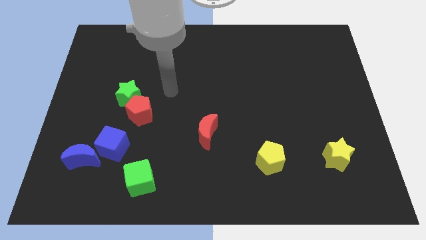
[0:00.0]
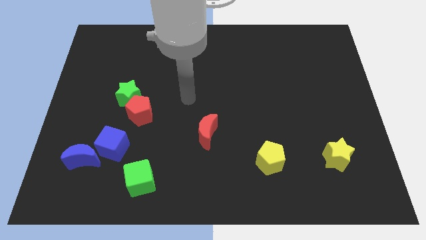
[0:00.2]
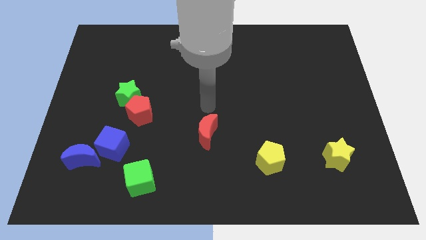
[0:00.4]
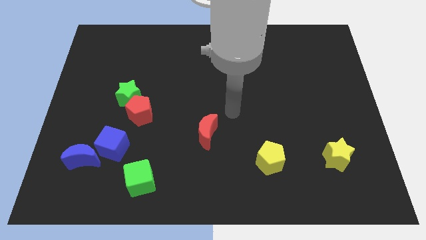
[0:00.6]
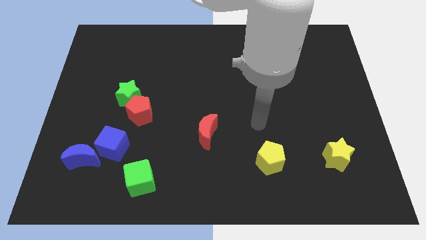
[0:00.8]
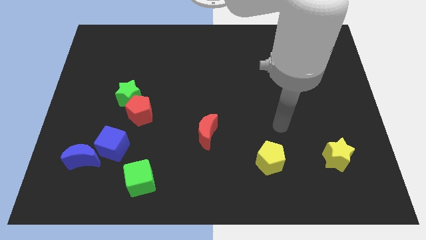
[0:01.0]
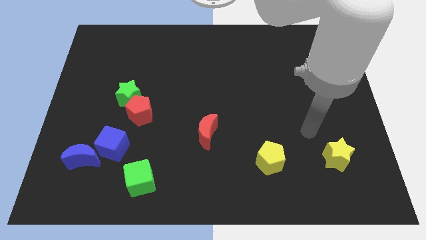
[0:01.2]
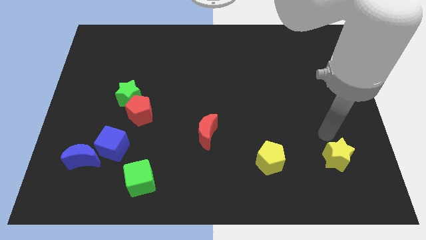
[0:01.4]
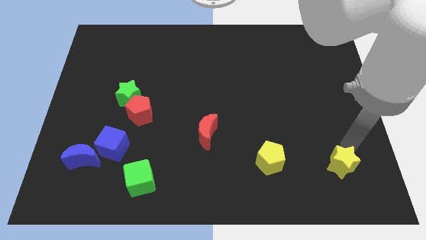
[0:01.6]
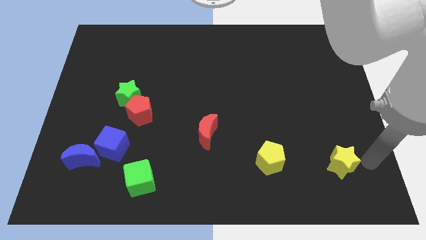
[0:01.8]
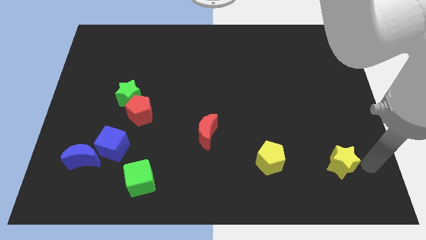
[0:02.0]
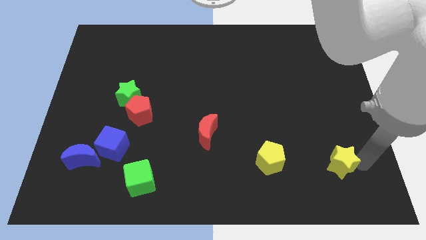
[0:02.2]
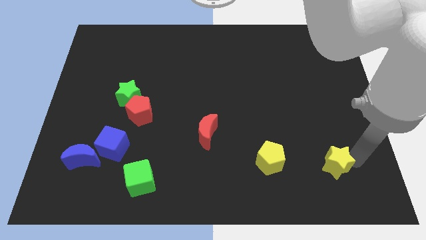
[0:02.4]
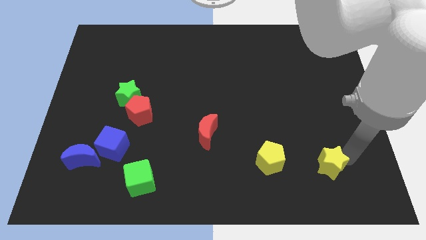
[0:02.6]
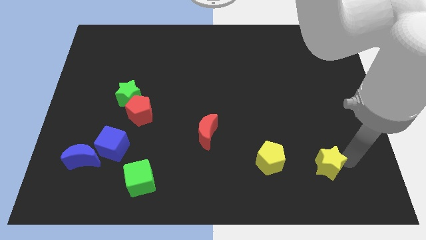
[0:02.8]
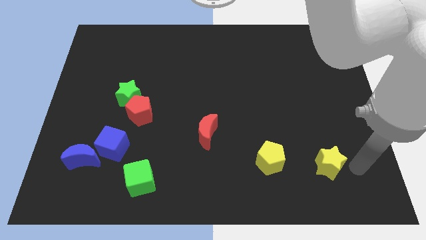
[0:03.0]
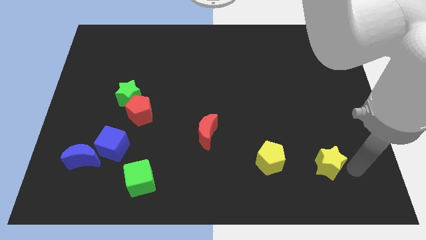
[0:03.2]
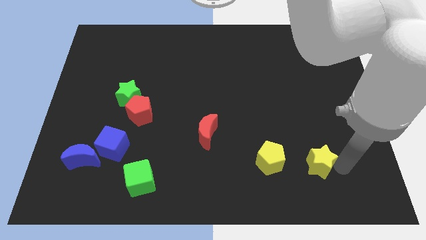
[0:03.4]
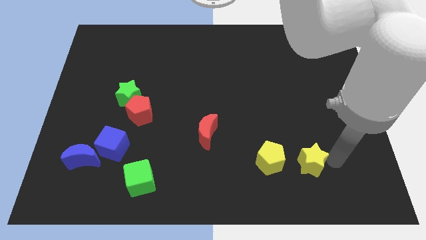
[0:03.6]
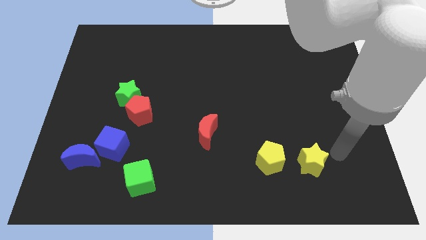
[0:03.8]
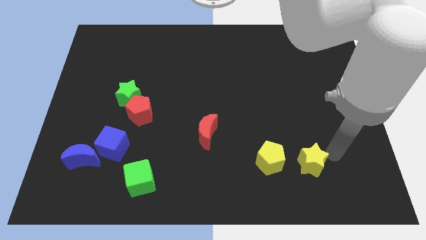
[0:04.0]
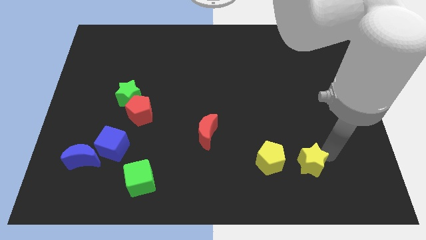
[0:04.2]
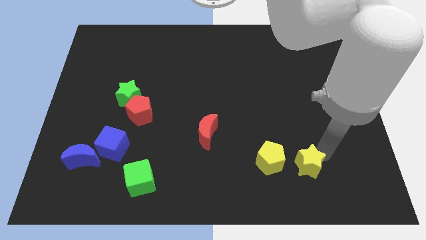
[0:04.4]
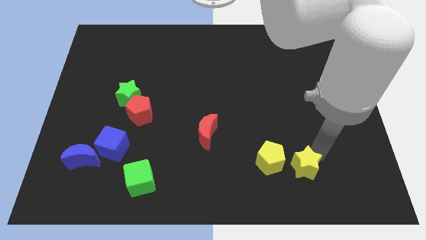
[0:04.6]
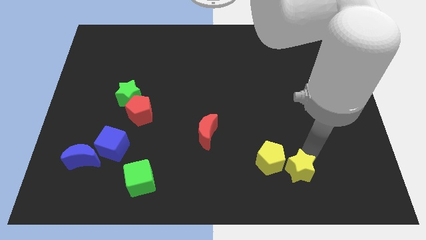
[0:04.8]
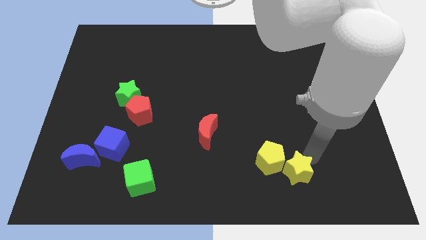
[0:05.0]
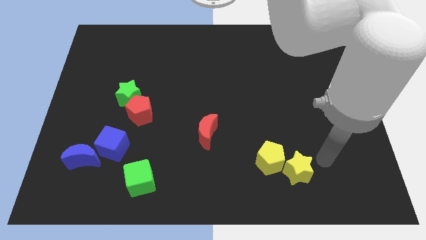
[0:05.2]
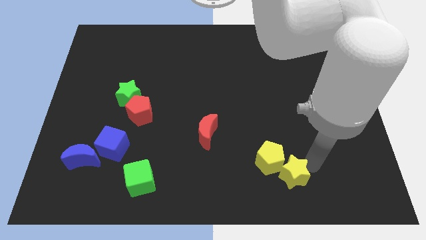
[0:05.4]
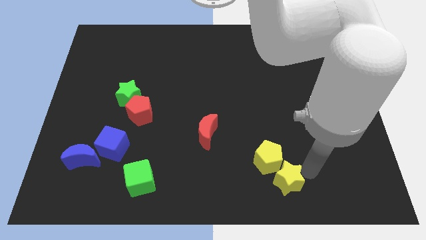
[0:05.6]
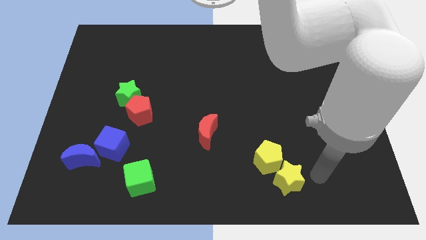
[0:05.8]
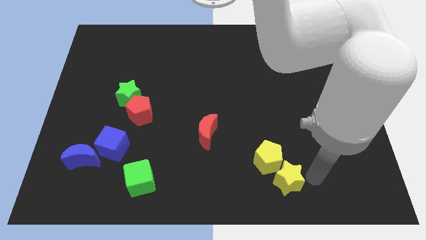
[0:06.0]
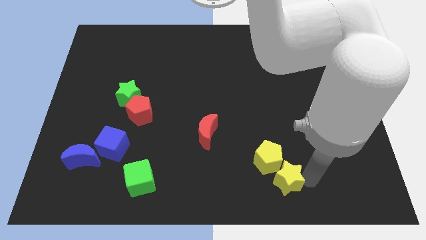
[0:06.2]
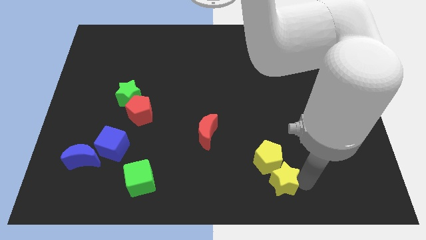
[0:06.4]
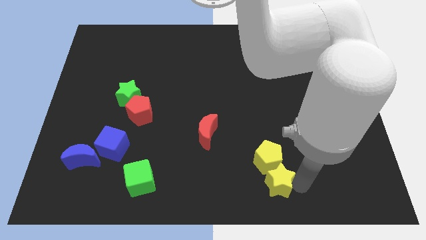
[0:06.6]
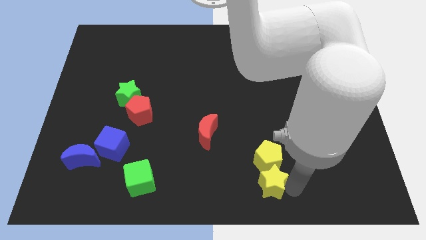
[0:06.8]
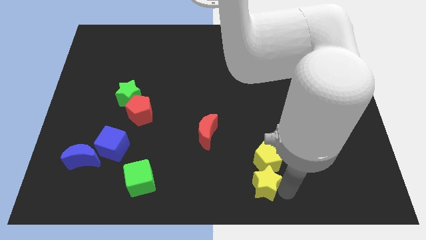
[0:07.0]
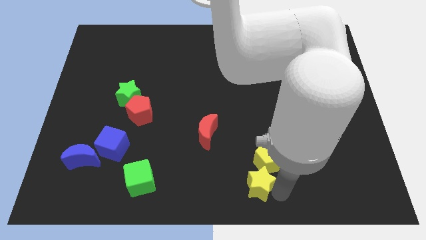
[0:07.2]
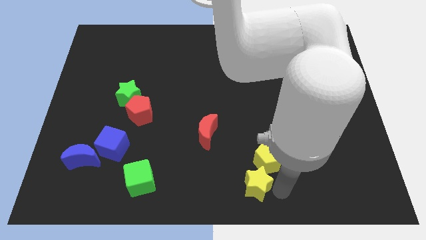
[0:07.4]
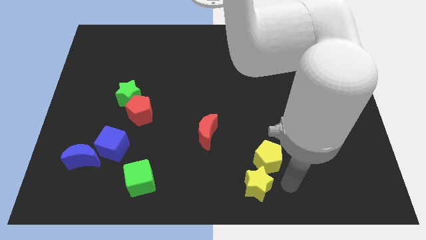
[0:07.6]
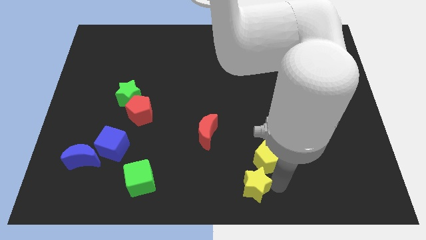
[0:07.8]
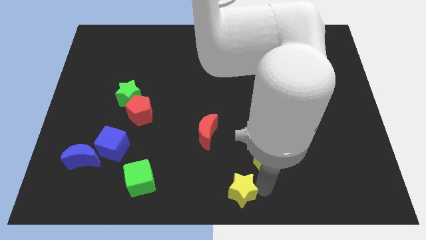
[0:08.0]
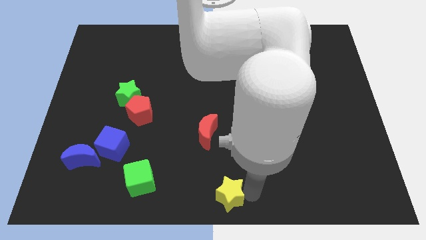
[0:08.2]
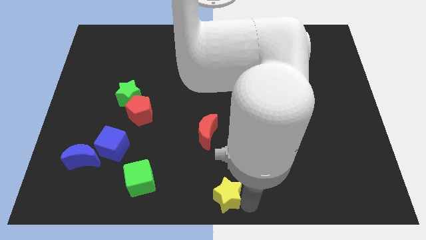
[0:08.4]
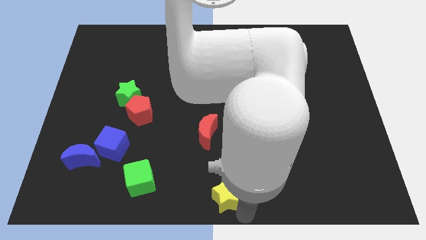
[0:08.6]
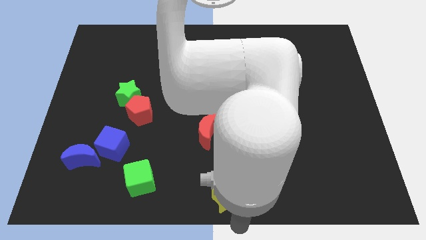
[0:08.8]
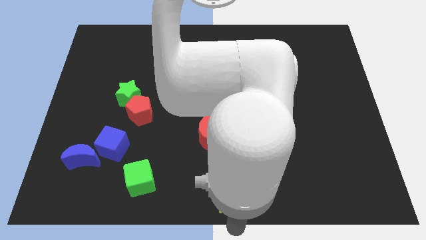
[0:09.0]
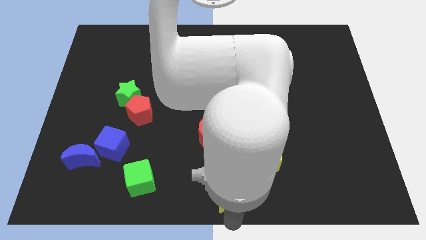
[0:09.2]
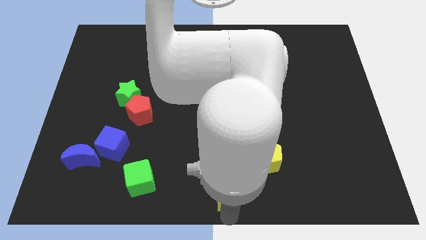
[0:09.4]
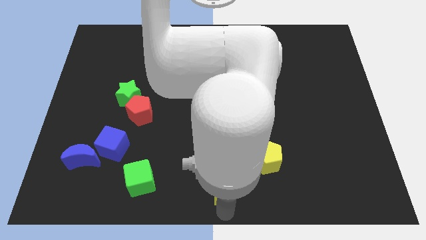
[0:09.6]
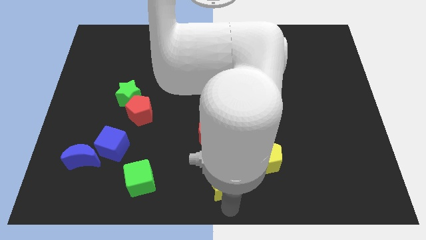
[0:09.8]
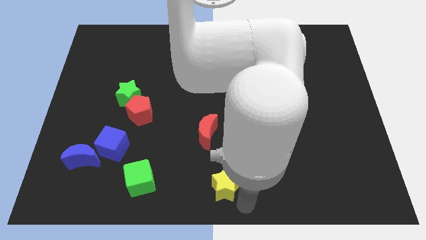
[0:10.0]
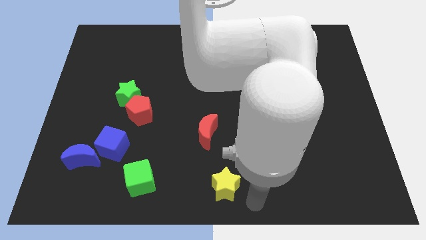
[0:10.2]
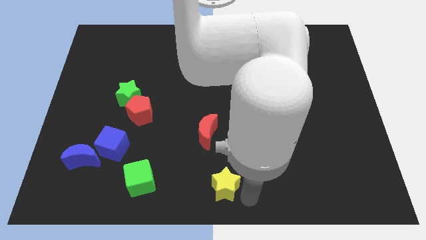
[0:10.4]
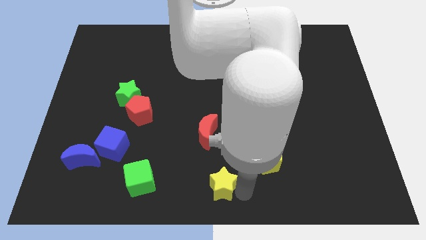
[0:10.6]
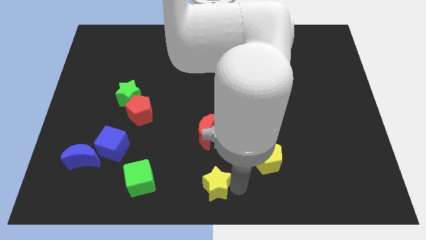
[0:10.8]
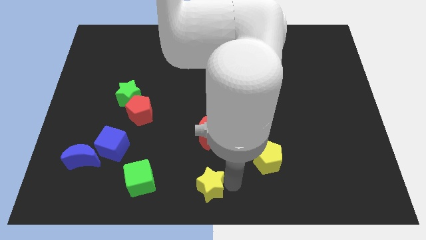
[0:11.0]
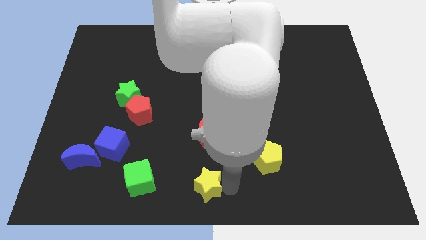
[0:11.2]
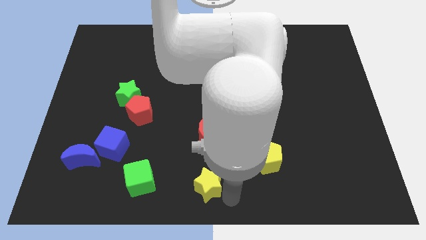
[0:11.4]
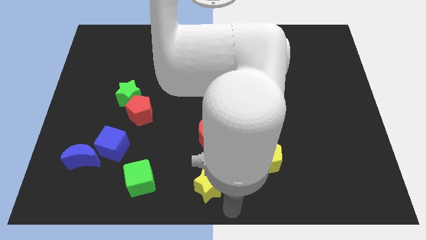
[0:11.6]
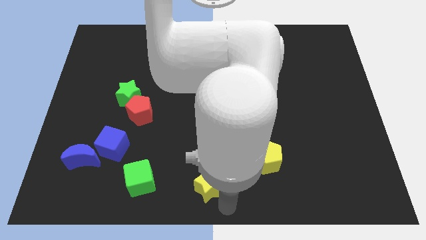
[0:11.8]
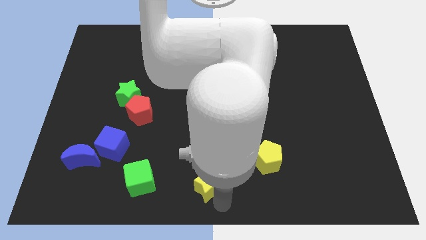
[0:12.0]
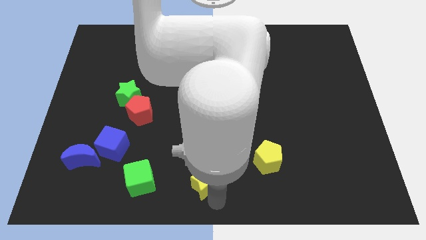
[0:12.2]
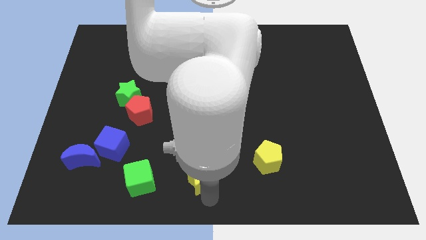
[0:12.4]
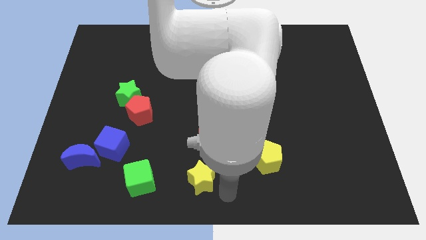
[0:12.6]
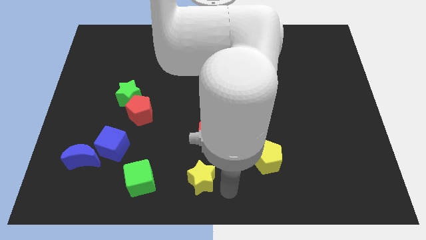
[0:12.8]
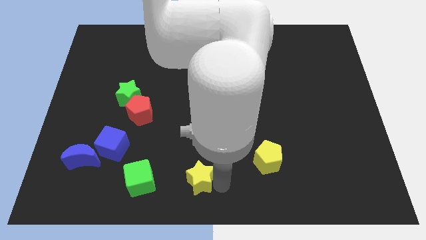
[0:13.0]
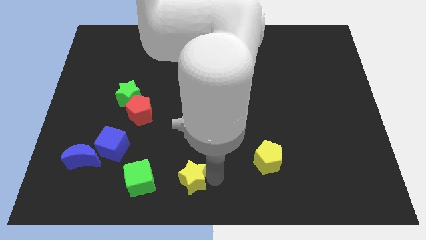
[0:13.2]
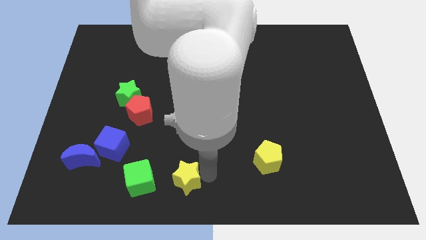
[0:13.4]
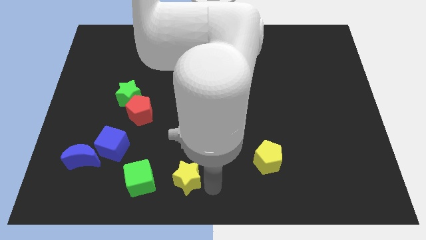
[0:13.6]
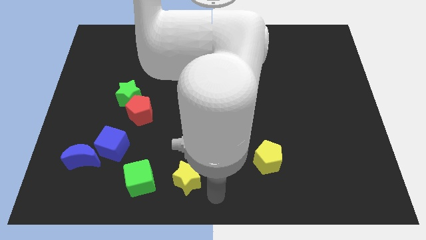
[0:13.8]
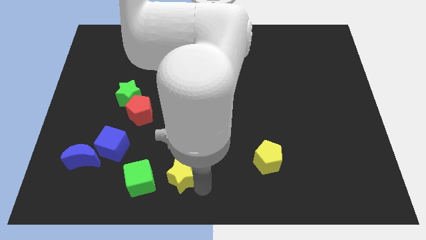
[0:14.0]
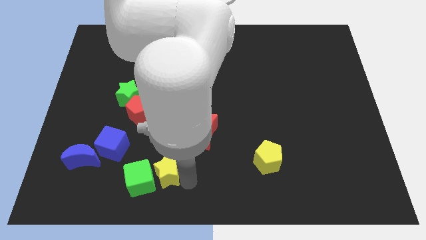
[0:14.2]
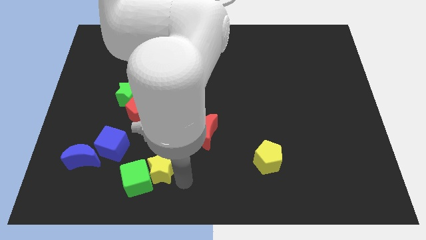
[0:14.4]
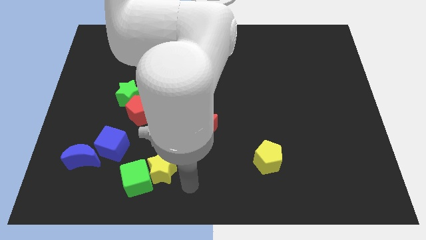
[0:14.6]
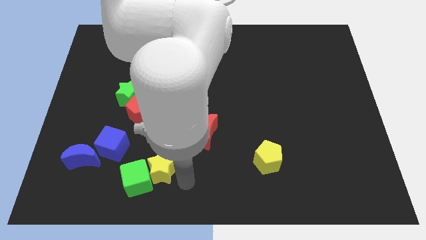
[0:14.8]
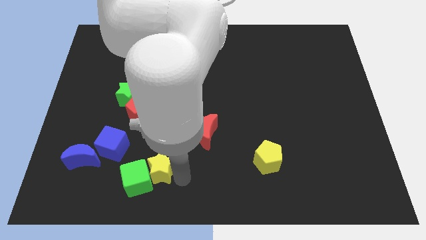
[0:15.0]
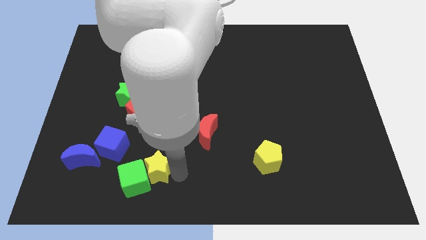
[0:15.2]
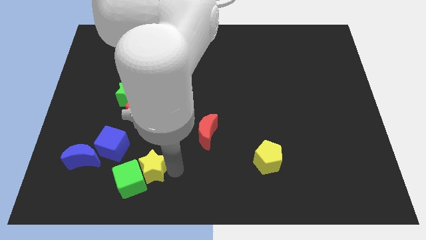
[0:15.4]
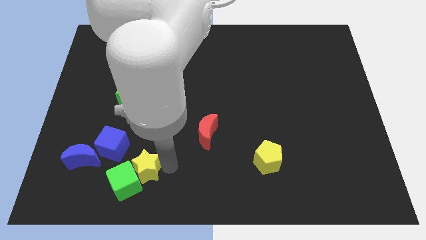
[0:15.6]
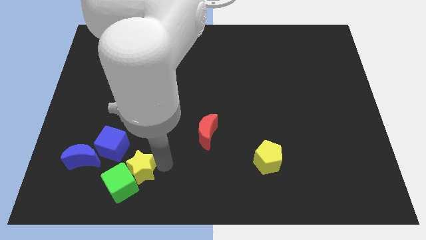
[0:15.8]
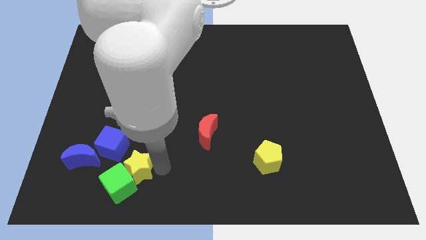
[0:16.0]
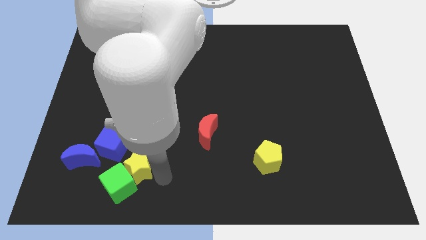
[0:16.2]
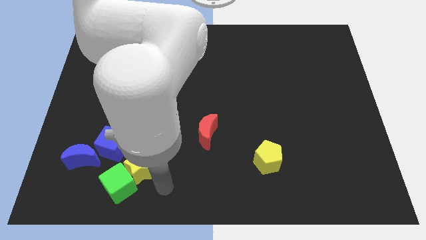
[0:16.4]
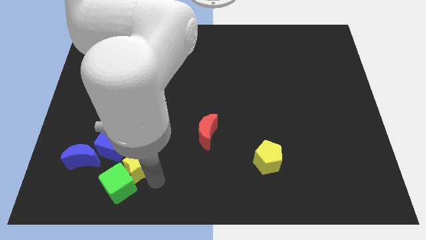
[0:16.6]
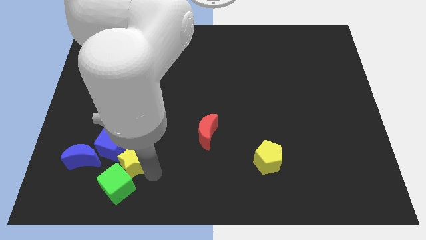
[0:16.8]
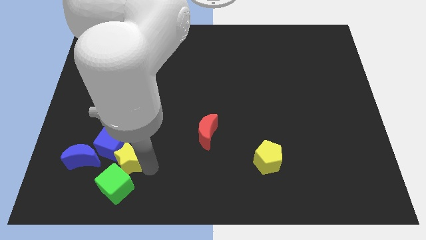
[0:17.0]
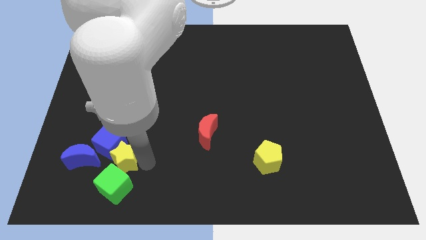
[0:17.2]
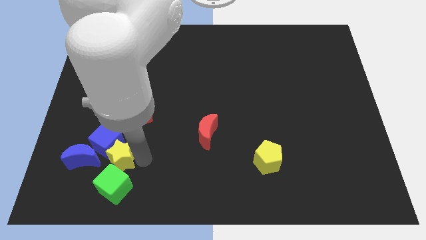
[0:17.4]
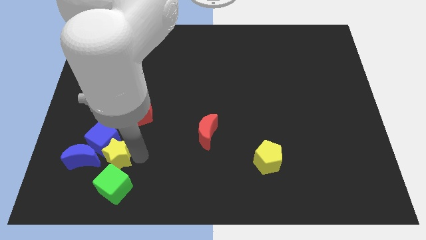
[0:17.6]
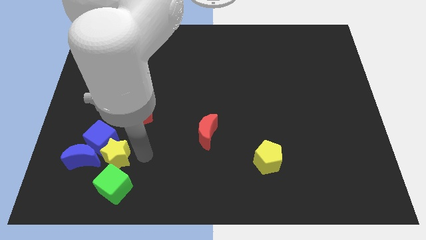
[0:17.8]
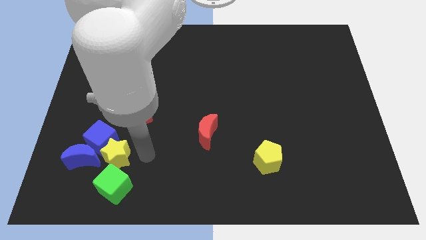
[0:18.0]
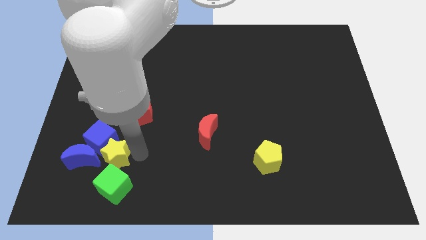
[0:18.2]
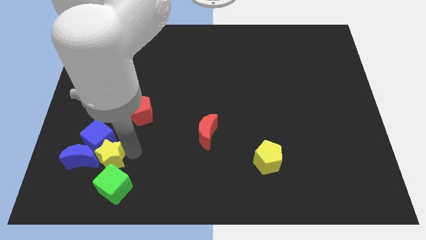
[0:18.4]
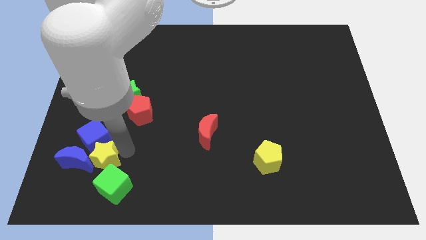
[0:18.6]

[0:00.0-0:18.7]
slide the yellow star to the blue moon
